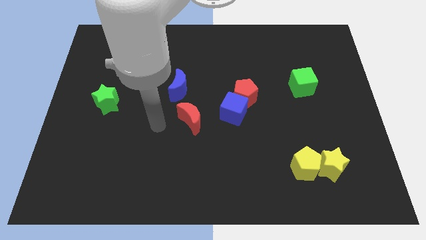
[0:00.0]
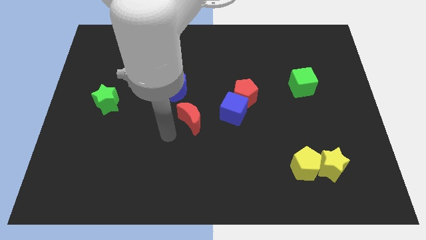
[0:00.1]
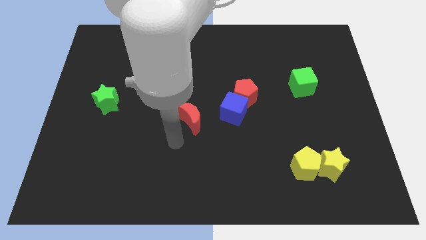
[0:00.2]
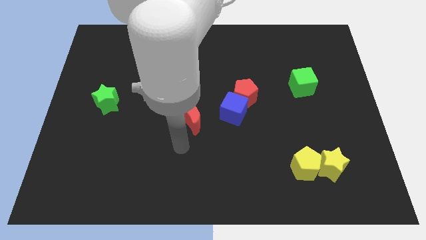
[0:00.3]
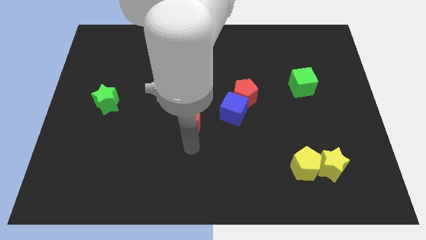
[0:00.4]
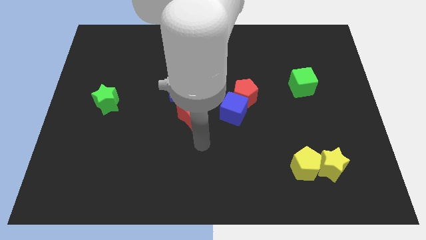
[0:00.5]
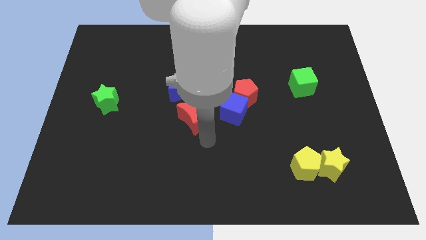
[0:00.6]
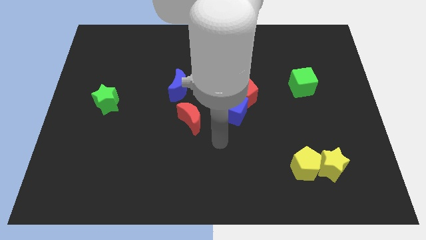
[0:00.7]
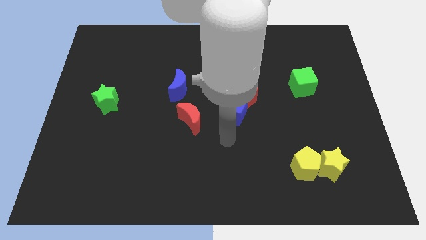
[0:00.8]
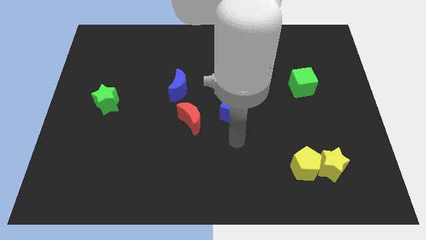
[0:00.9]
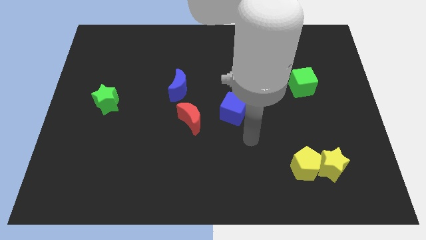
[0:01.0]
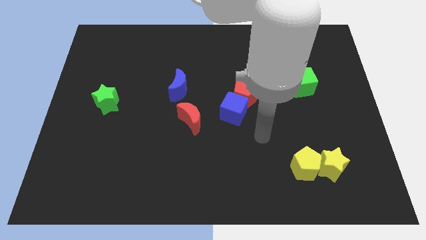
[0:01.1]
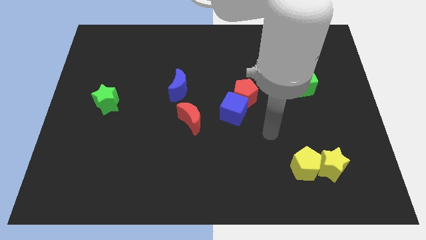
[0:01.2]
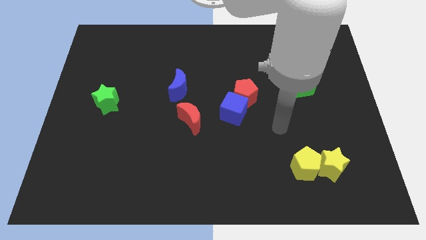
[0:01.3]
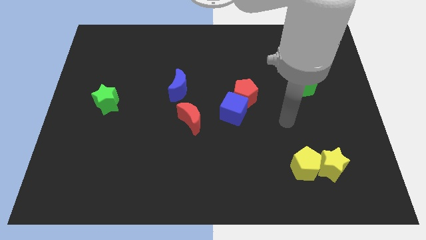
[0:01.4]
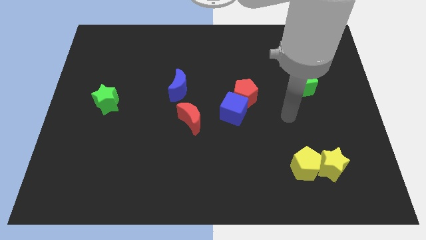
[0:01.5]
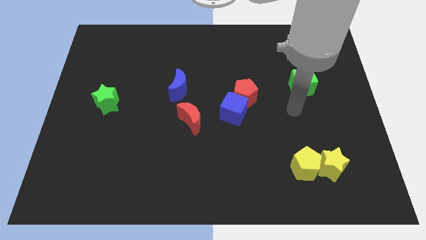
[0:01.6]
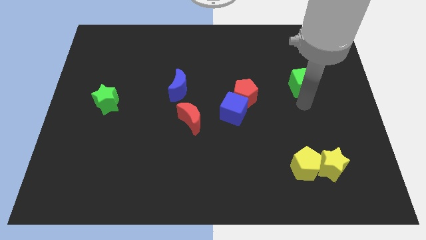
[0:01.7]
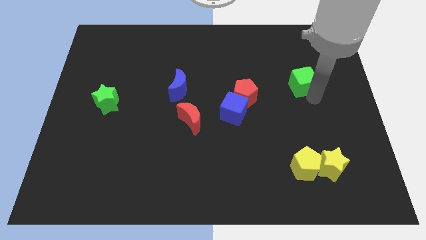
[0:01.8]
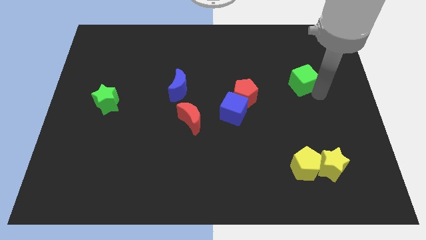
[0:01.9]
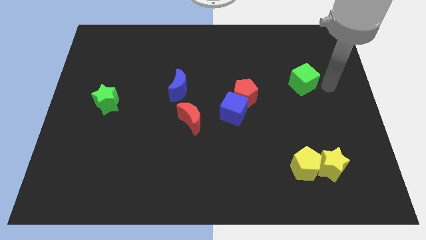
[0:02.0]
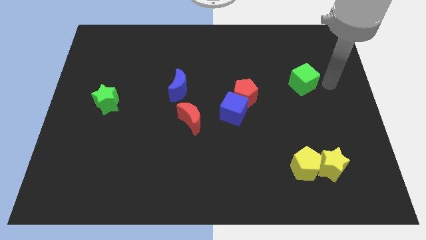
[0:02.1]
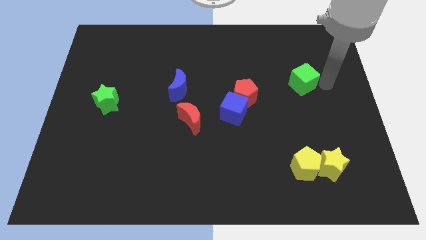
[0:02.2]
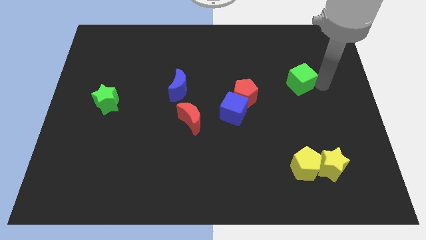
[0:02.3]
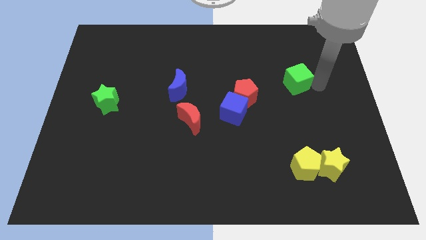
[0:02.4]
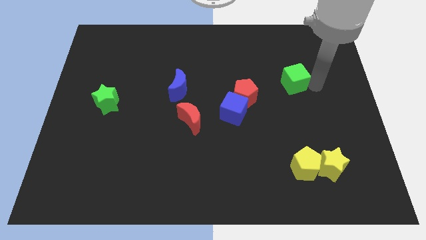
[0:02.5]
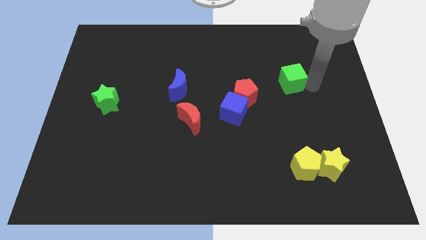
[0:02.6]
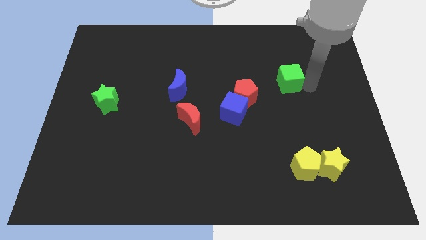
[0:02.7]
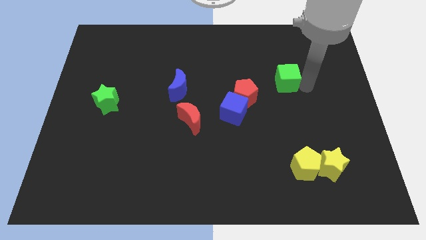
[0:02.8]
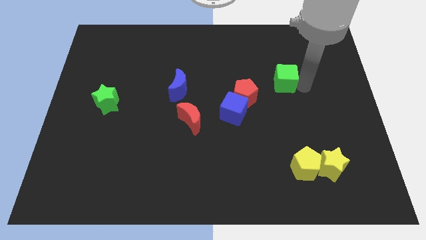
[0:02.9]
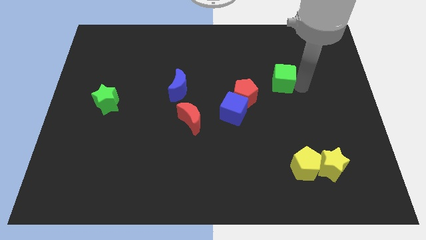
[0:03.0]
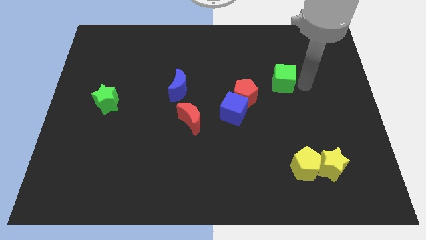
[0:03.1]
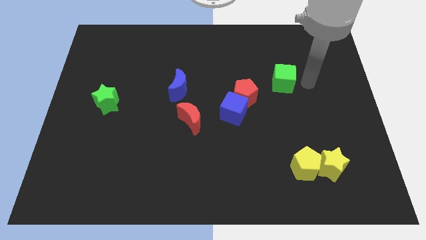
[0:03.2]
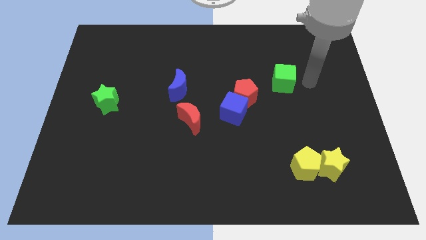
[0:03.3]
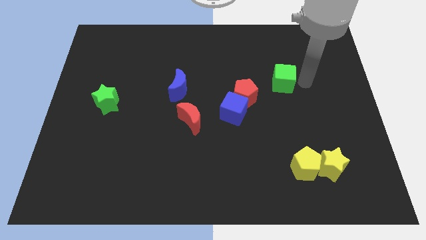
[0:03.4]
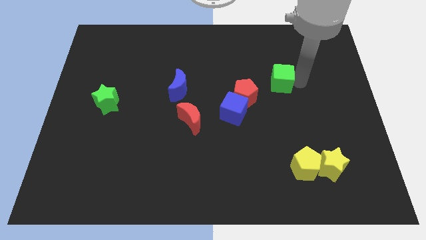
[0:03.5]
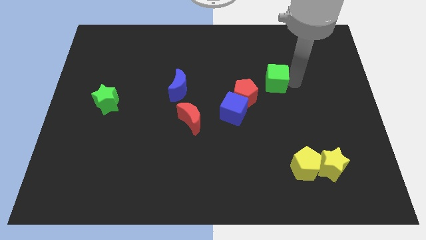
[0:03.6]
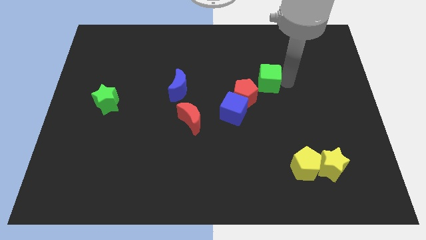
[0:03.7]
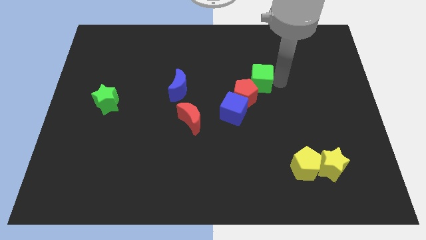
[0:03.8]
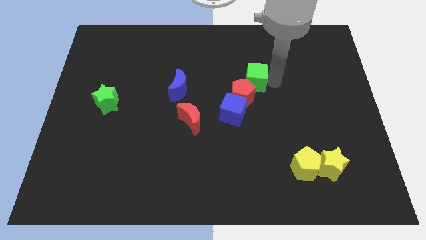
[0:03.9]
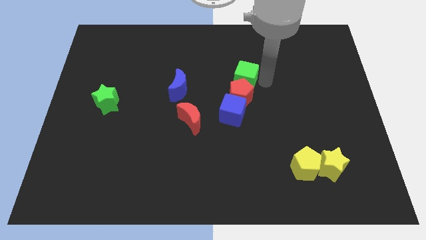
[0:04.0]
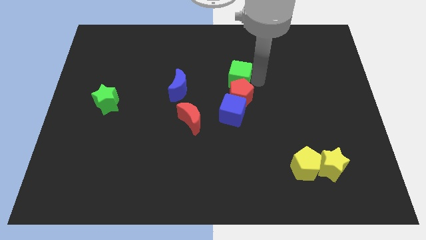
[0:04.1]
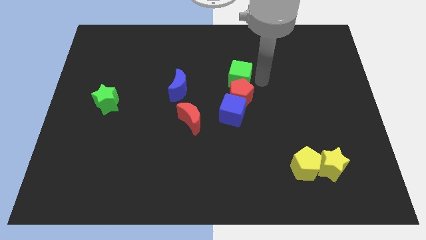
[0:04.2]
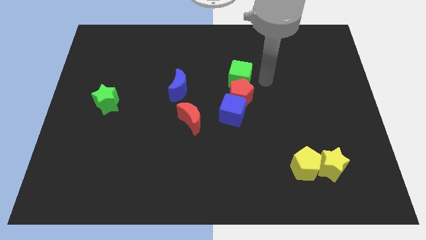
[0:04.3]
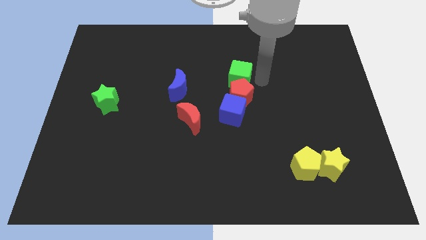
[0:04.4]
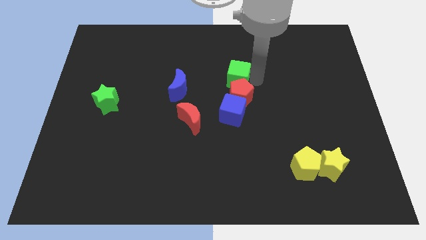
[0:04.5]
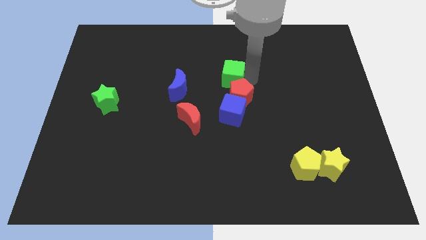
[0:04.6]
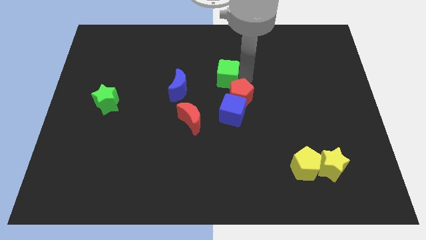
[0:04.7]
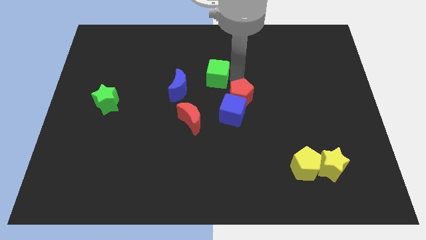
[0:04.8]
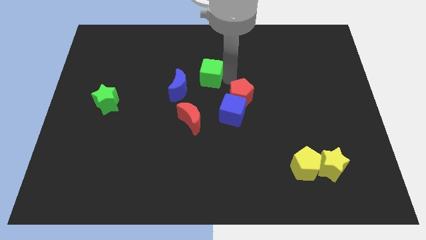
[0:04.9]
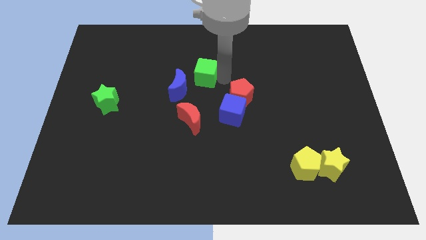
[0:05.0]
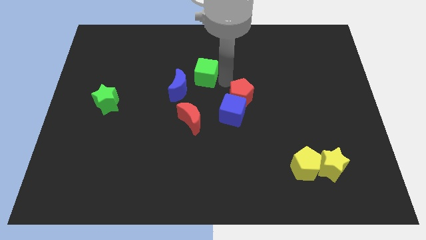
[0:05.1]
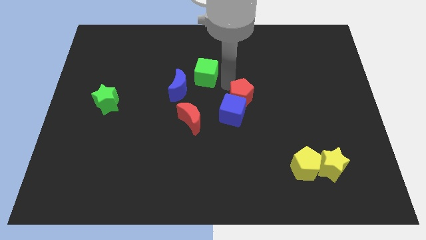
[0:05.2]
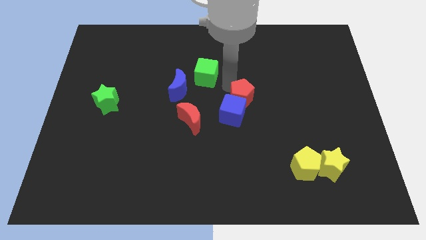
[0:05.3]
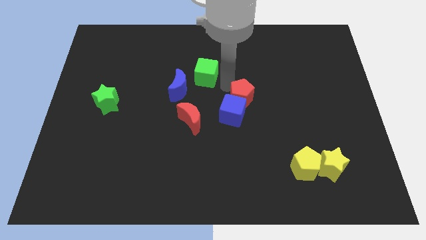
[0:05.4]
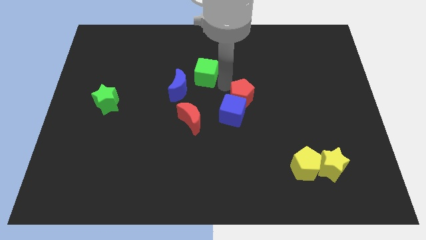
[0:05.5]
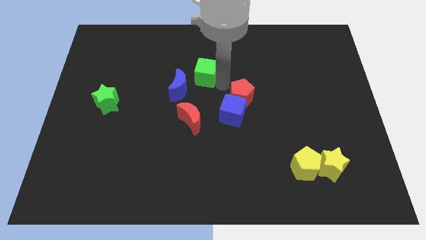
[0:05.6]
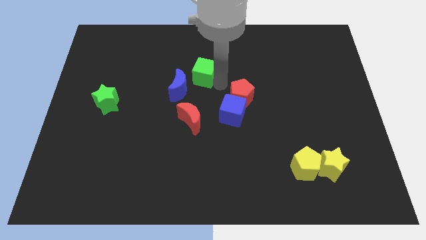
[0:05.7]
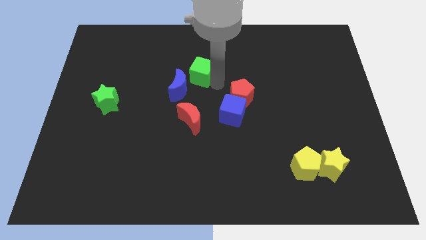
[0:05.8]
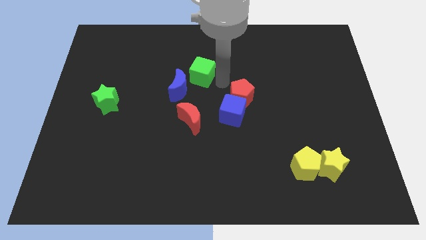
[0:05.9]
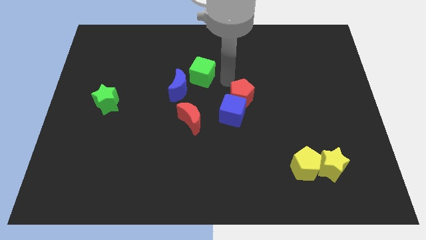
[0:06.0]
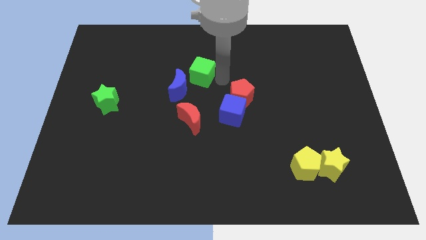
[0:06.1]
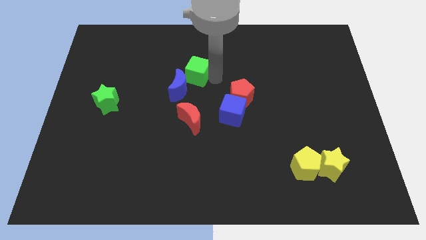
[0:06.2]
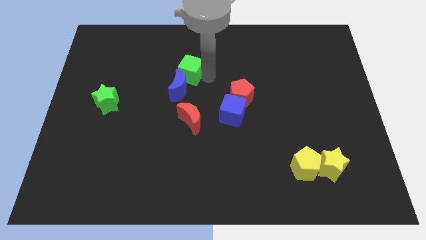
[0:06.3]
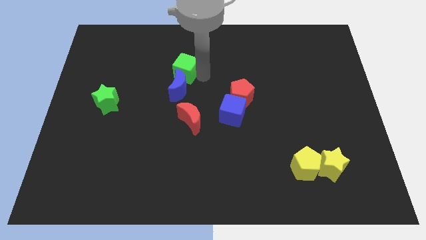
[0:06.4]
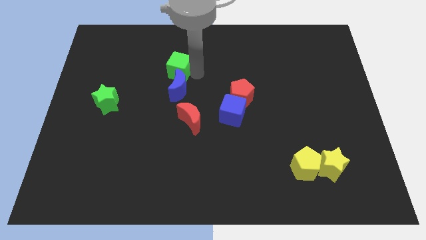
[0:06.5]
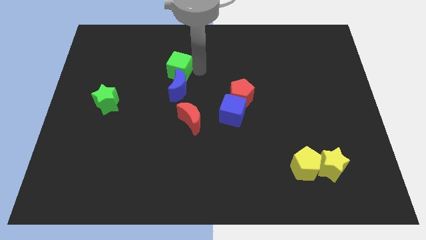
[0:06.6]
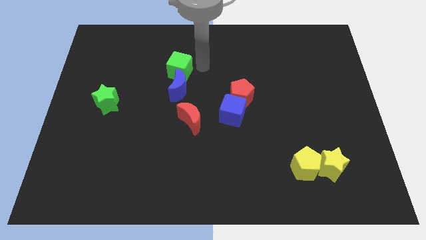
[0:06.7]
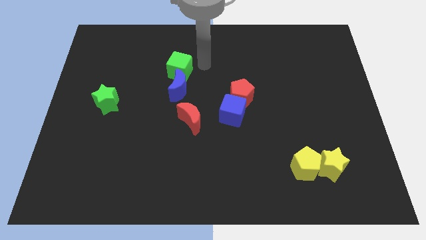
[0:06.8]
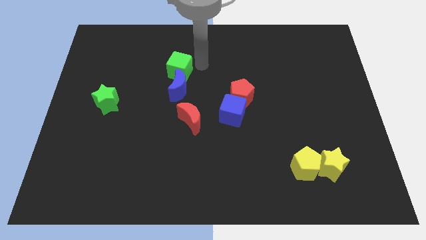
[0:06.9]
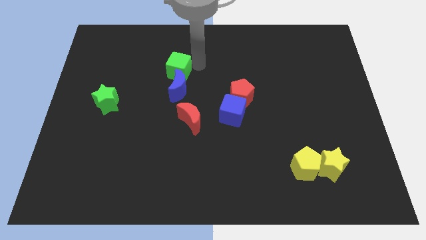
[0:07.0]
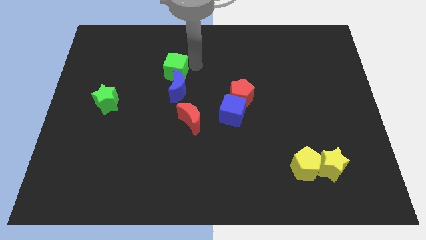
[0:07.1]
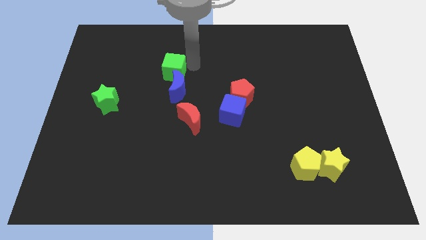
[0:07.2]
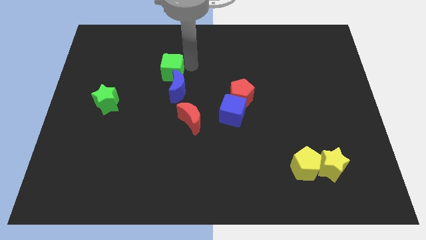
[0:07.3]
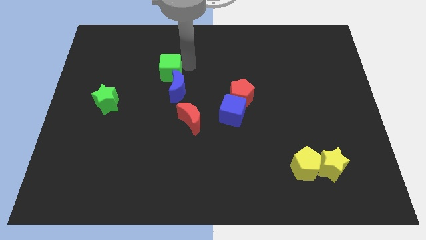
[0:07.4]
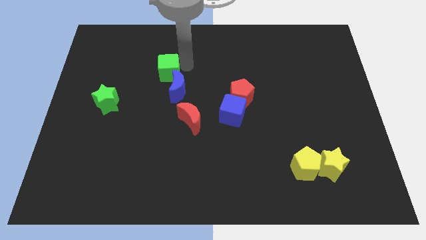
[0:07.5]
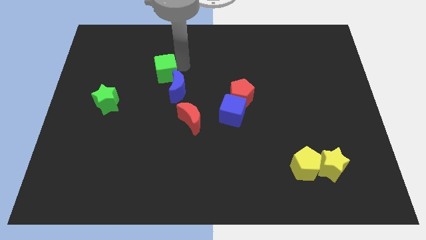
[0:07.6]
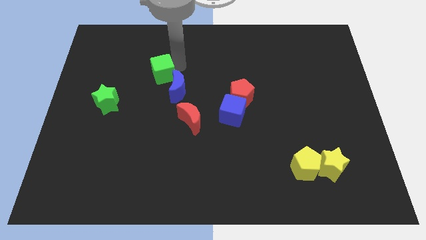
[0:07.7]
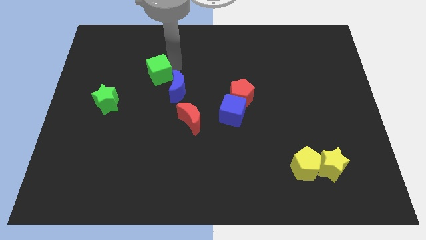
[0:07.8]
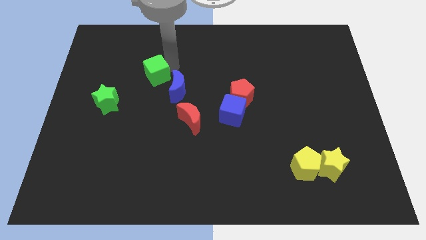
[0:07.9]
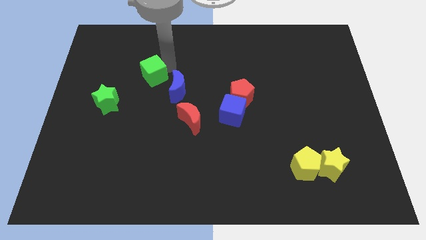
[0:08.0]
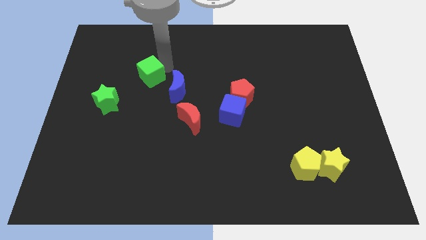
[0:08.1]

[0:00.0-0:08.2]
put the green cube diagonally up and to the right of the green star
